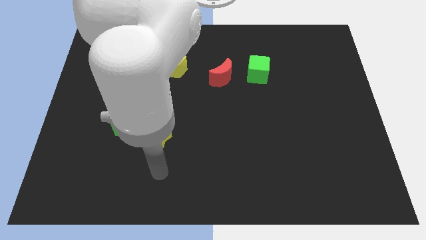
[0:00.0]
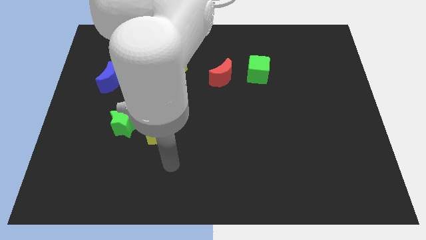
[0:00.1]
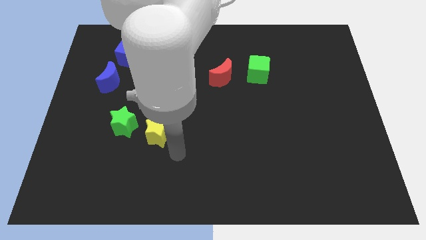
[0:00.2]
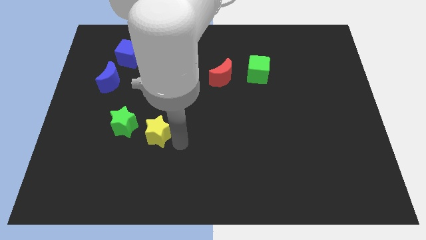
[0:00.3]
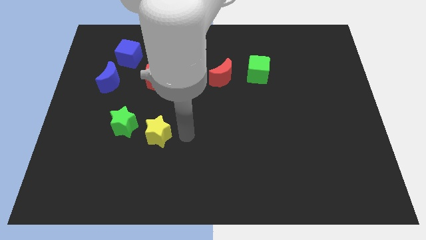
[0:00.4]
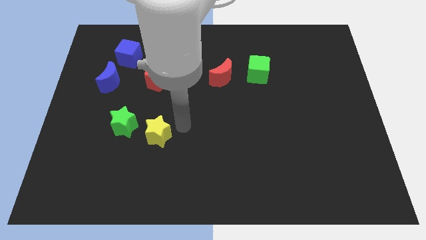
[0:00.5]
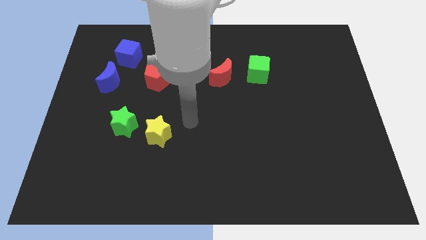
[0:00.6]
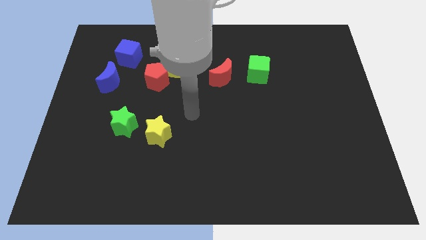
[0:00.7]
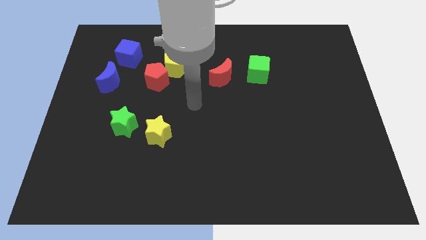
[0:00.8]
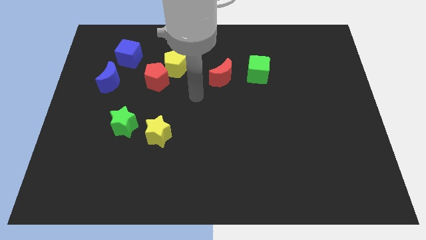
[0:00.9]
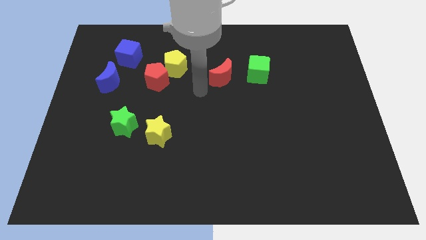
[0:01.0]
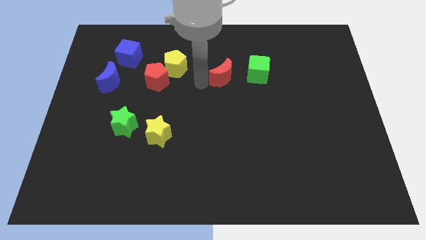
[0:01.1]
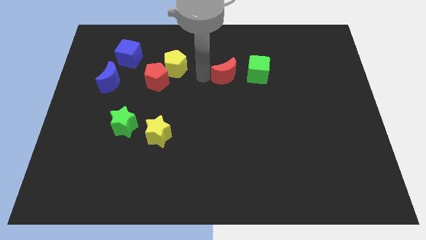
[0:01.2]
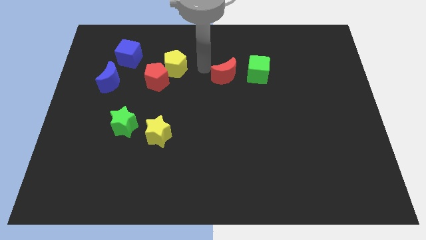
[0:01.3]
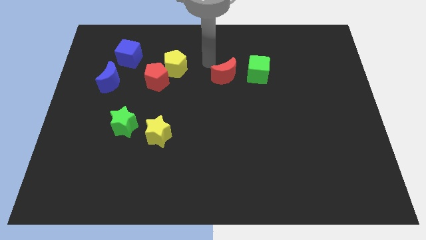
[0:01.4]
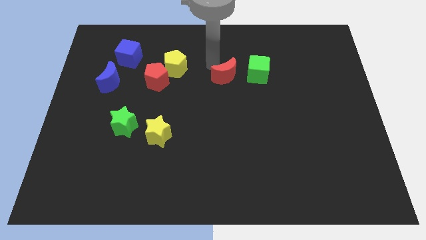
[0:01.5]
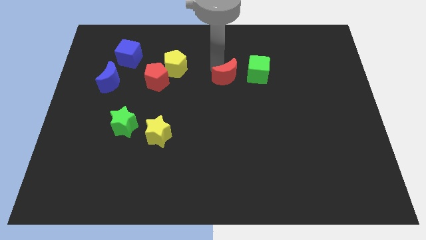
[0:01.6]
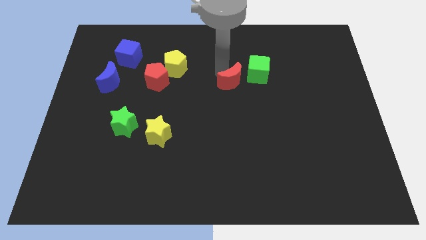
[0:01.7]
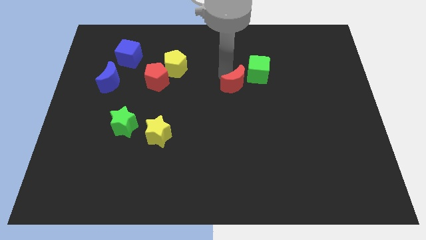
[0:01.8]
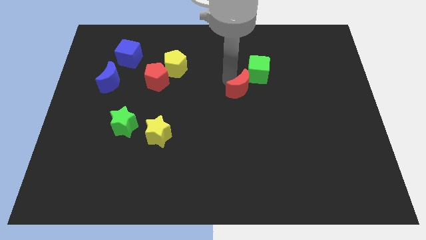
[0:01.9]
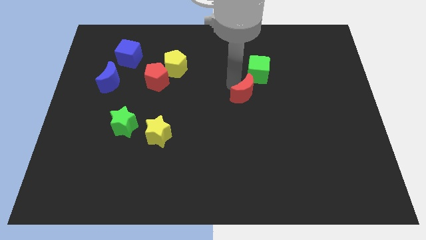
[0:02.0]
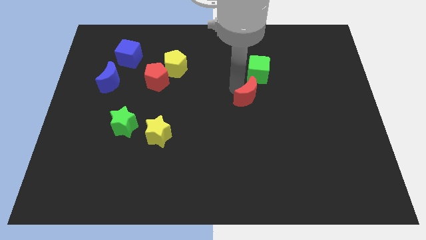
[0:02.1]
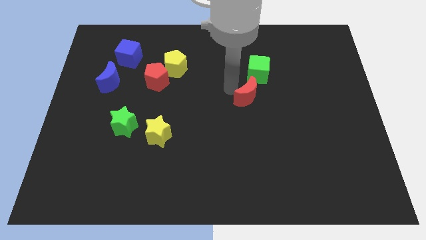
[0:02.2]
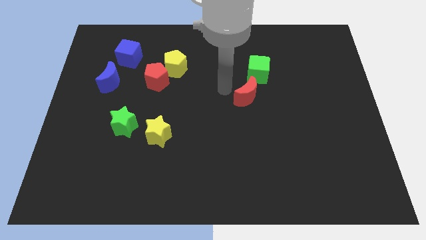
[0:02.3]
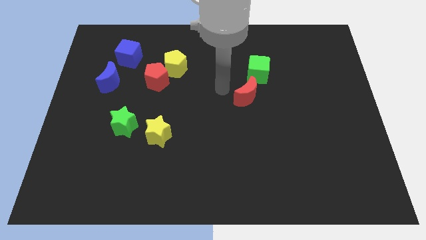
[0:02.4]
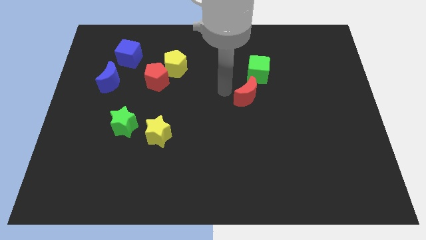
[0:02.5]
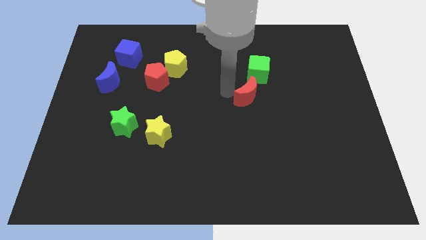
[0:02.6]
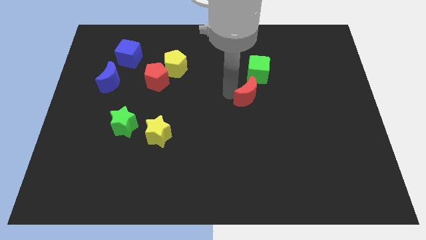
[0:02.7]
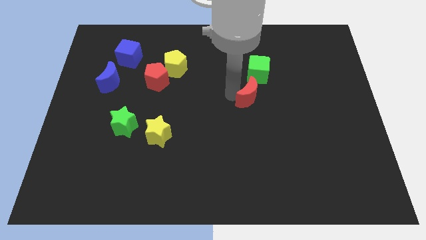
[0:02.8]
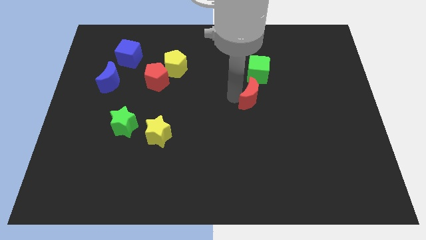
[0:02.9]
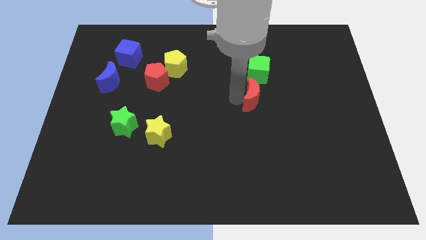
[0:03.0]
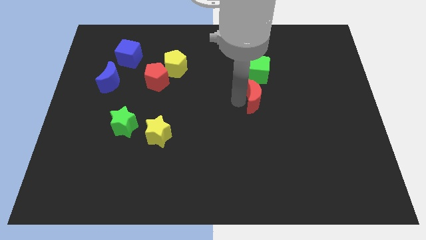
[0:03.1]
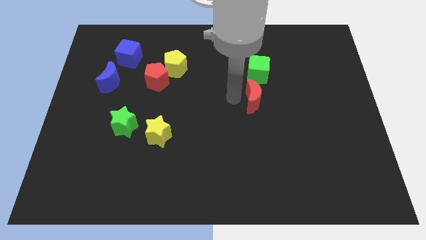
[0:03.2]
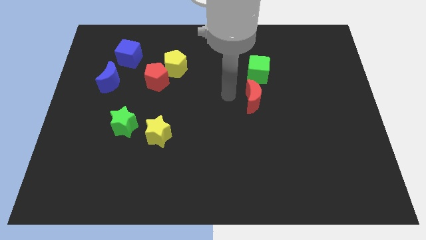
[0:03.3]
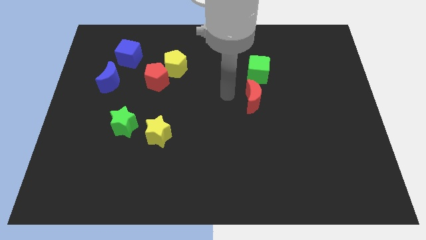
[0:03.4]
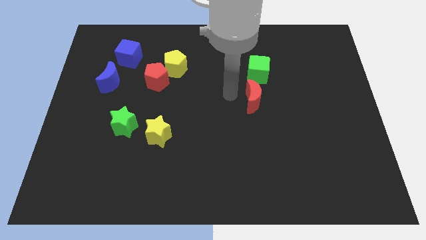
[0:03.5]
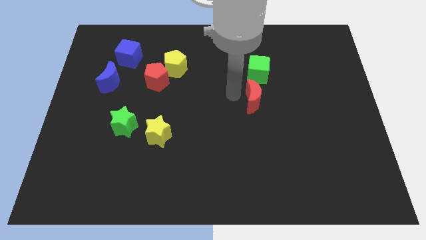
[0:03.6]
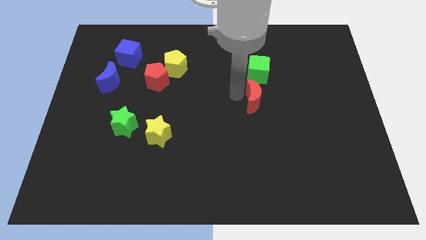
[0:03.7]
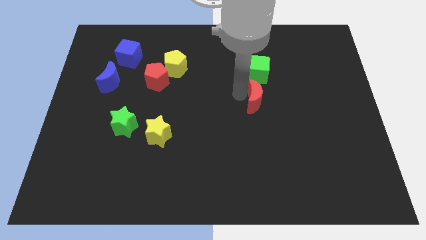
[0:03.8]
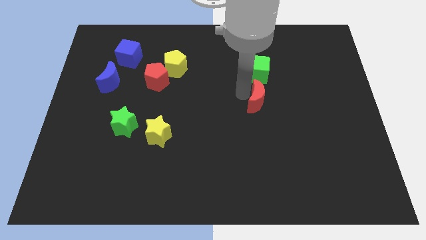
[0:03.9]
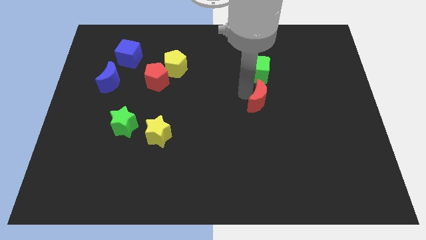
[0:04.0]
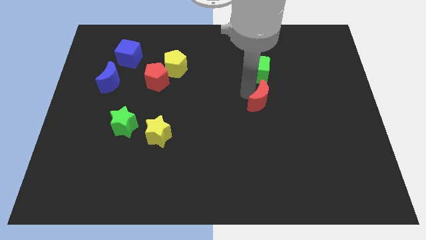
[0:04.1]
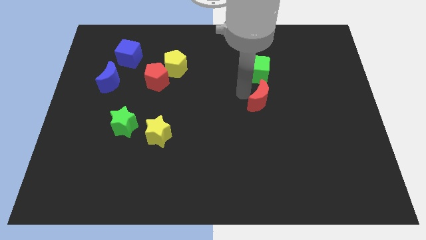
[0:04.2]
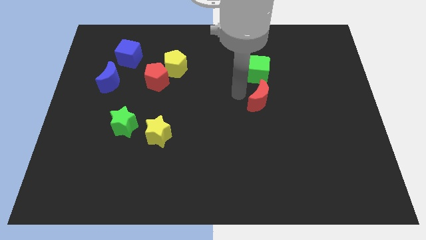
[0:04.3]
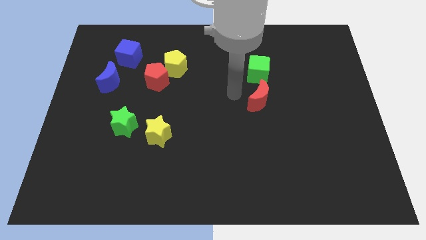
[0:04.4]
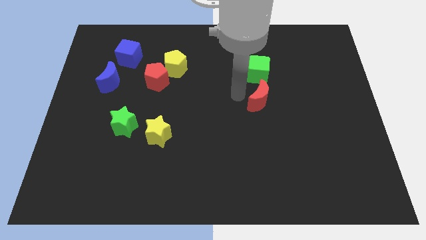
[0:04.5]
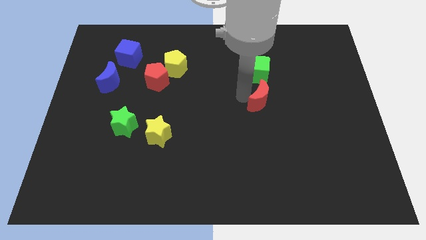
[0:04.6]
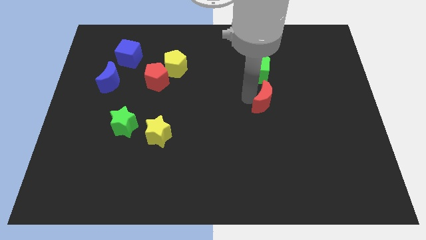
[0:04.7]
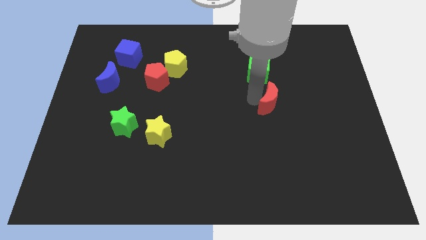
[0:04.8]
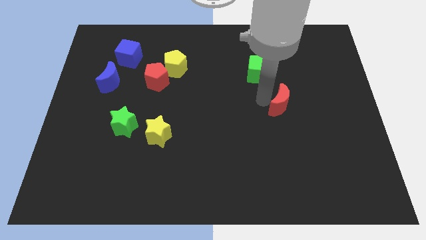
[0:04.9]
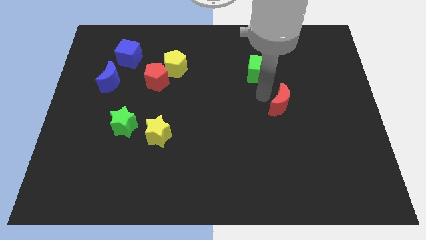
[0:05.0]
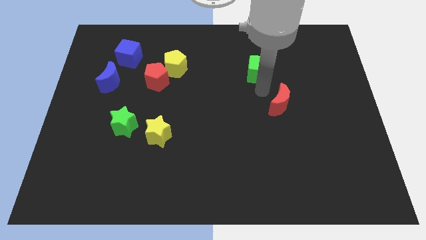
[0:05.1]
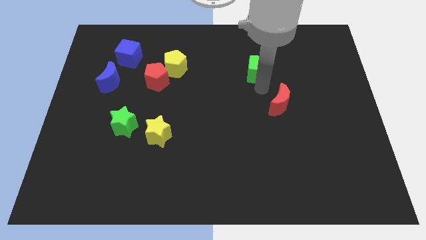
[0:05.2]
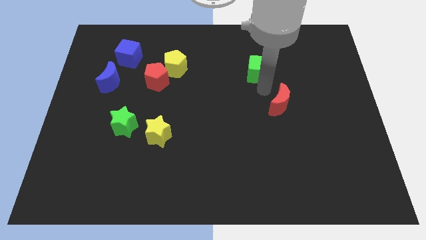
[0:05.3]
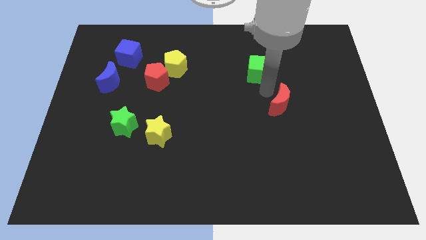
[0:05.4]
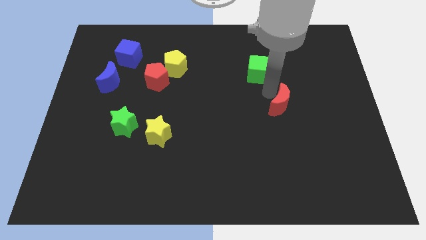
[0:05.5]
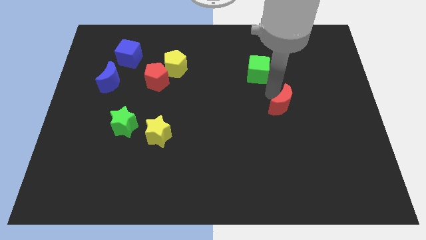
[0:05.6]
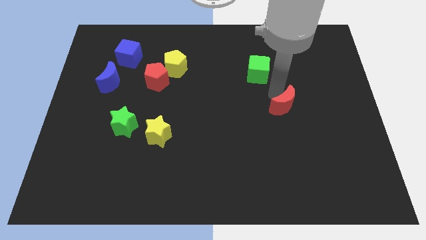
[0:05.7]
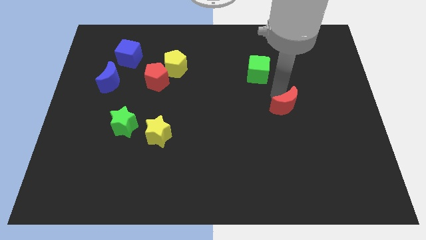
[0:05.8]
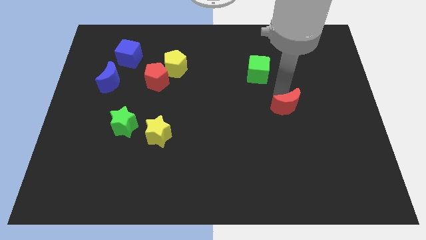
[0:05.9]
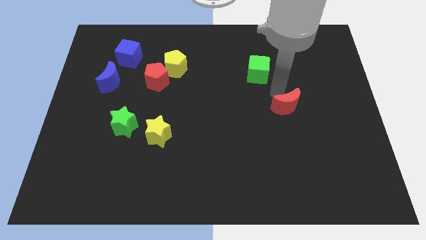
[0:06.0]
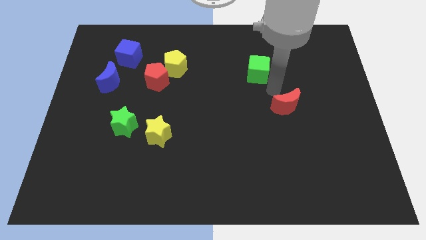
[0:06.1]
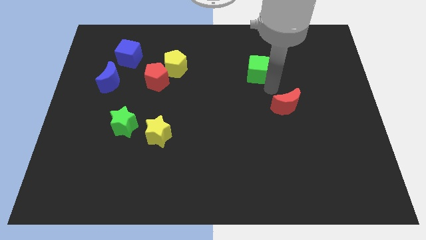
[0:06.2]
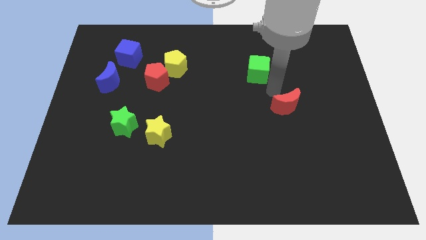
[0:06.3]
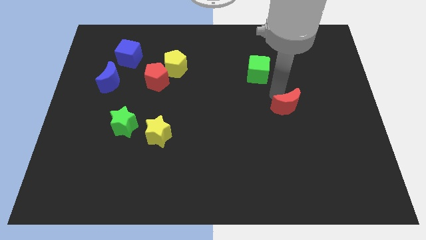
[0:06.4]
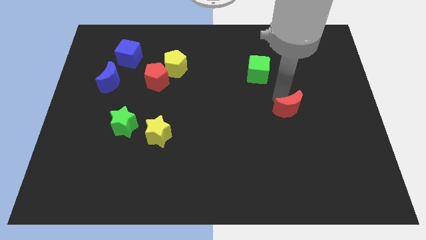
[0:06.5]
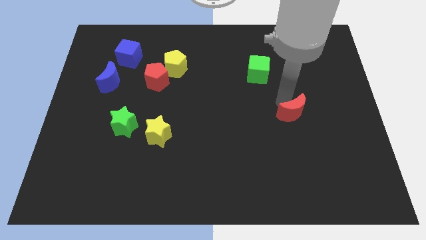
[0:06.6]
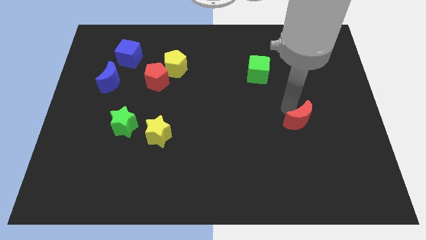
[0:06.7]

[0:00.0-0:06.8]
slide the red moon downwards and to the right

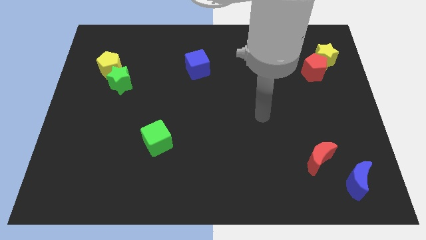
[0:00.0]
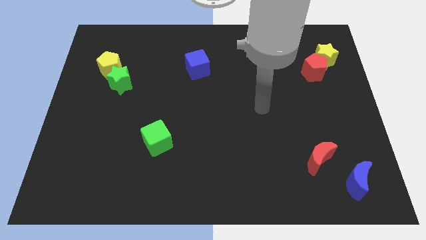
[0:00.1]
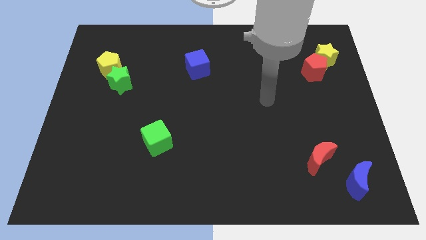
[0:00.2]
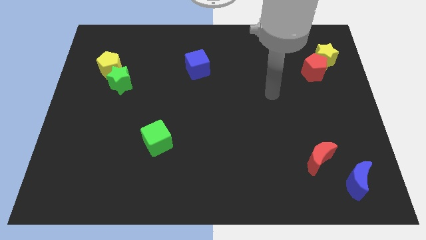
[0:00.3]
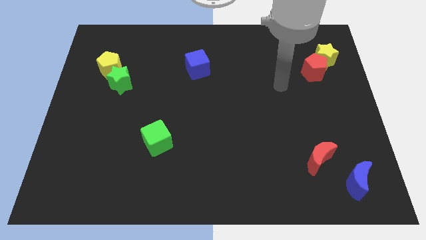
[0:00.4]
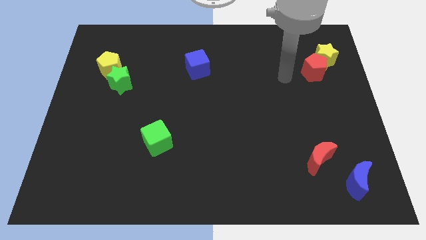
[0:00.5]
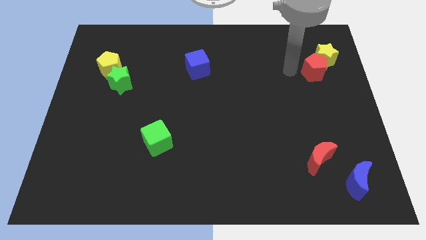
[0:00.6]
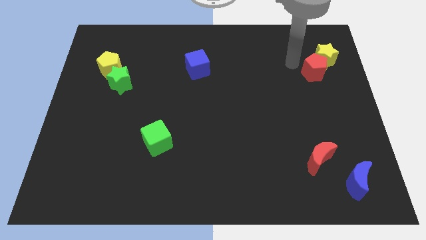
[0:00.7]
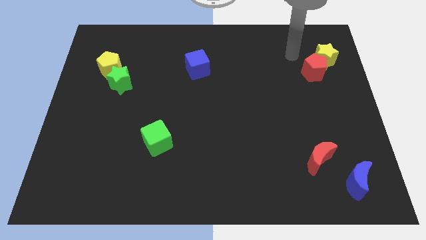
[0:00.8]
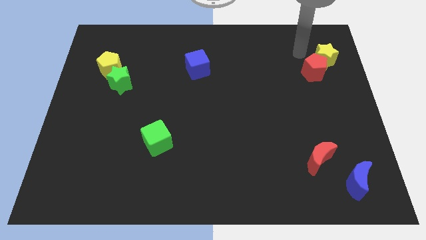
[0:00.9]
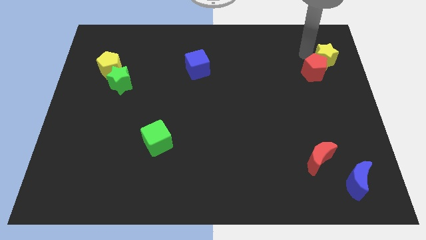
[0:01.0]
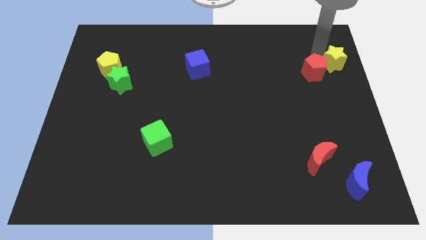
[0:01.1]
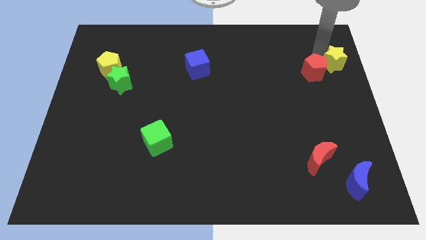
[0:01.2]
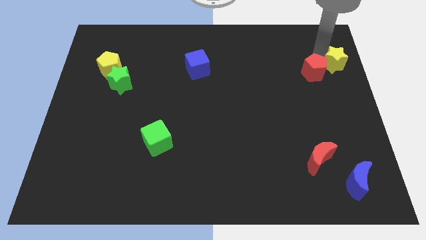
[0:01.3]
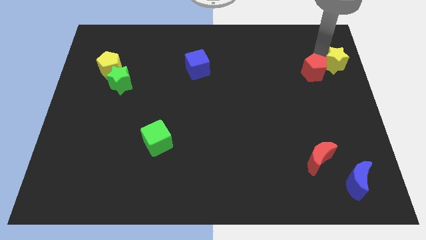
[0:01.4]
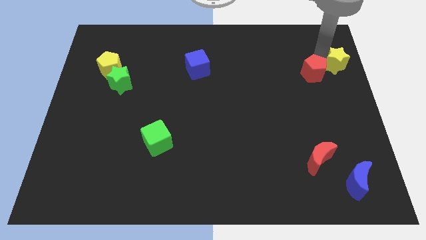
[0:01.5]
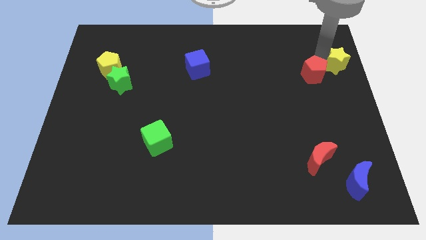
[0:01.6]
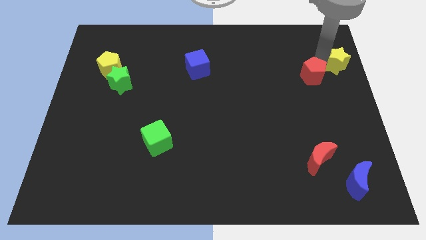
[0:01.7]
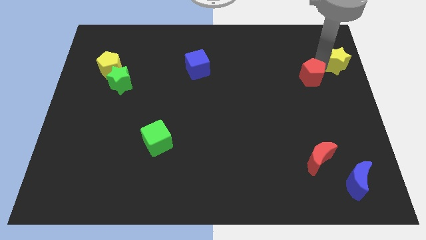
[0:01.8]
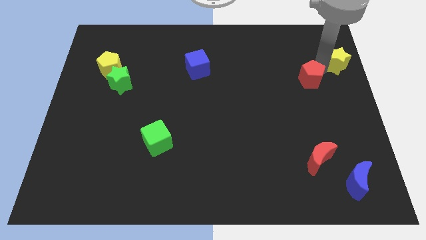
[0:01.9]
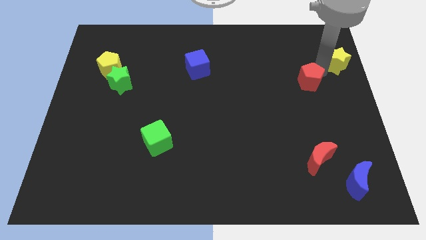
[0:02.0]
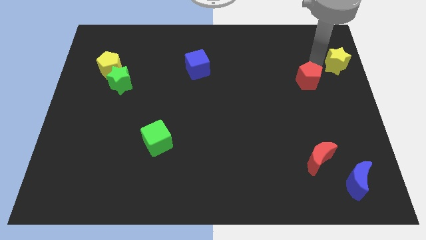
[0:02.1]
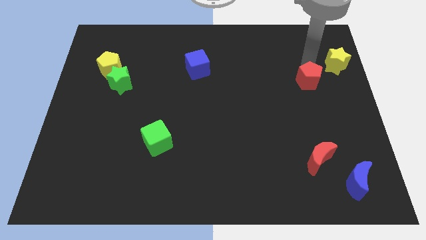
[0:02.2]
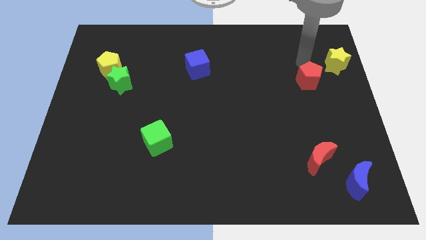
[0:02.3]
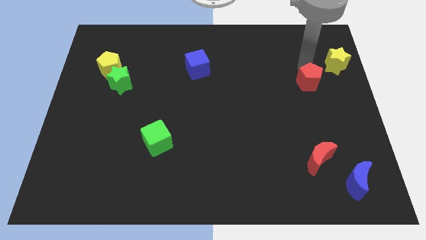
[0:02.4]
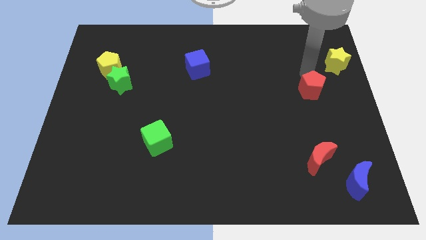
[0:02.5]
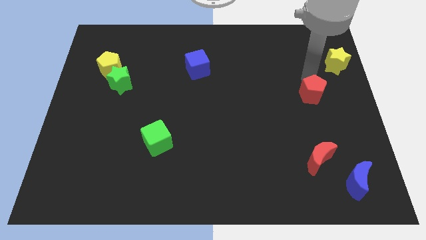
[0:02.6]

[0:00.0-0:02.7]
slightly push the red pentagon down
